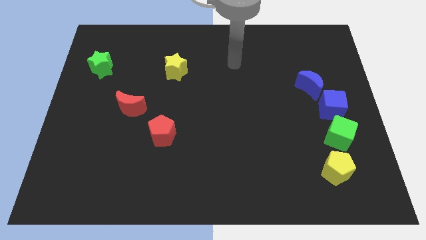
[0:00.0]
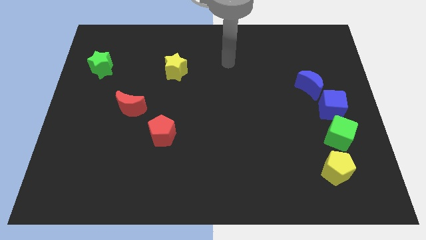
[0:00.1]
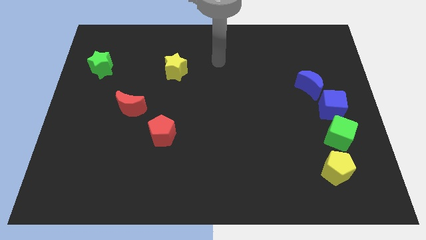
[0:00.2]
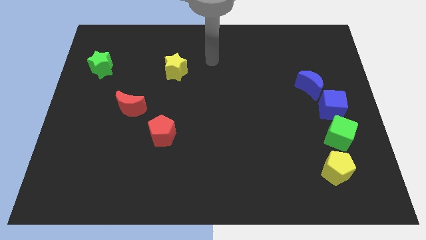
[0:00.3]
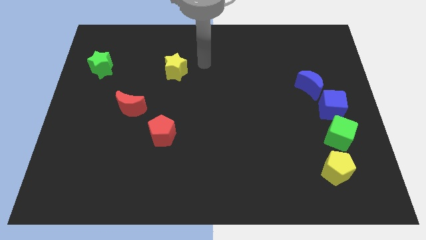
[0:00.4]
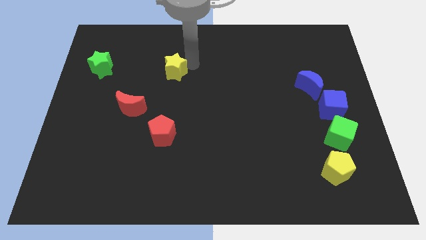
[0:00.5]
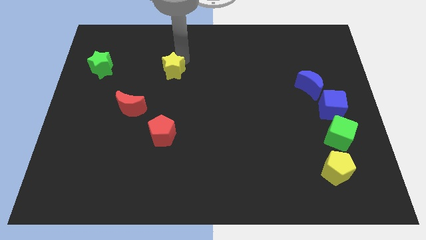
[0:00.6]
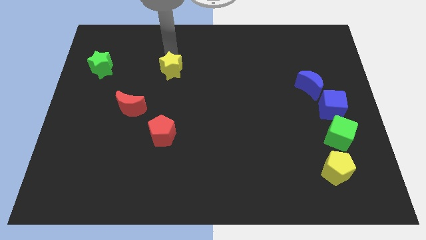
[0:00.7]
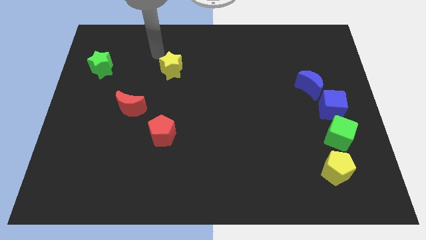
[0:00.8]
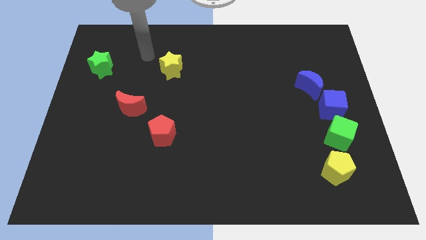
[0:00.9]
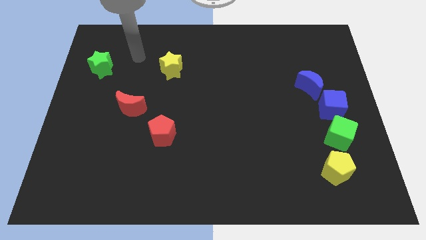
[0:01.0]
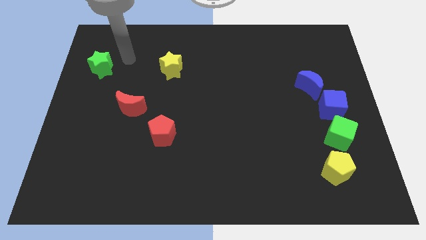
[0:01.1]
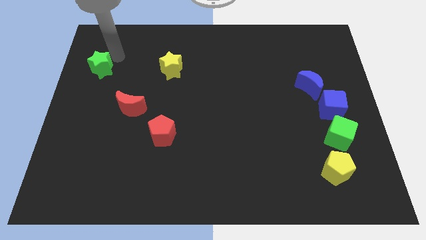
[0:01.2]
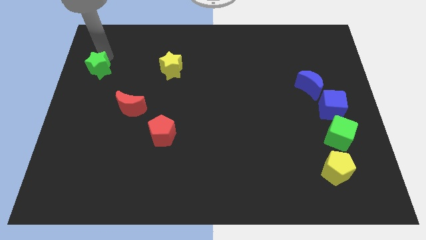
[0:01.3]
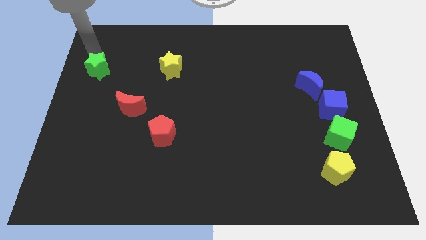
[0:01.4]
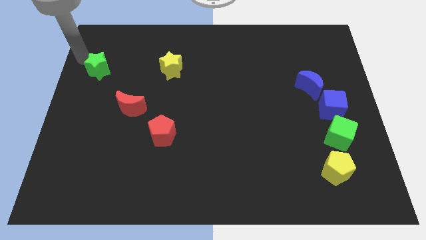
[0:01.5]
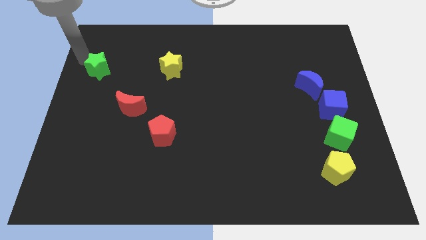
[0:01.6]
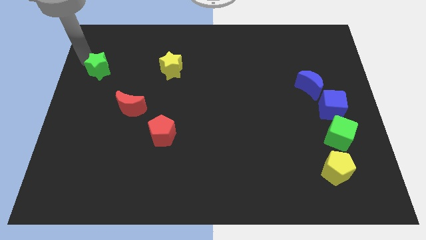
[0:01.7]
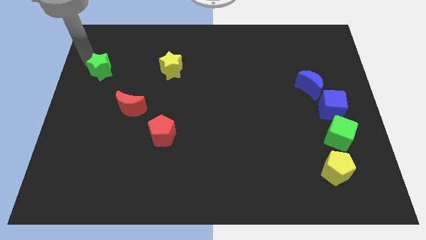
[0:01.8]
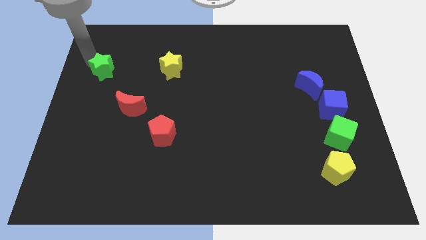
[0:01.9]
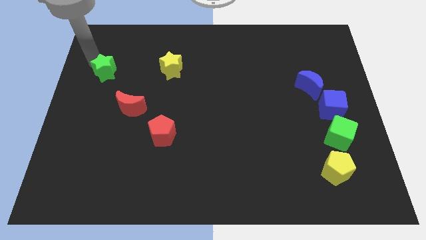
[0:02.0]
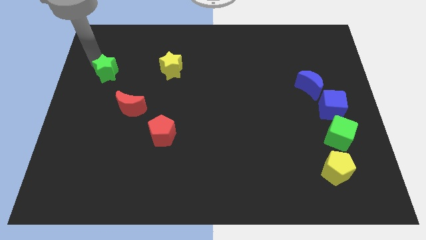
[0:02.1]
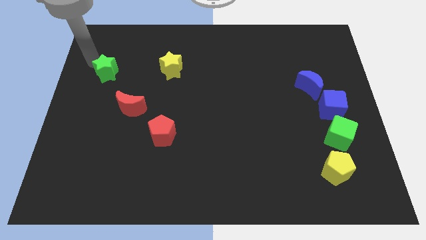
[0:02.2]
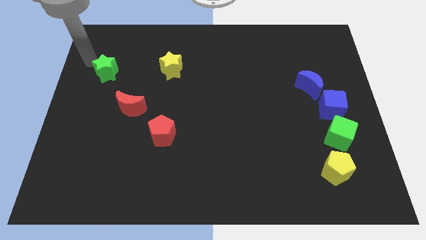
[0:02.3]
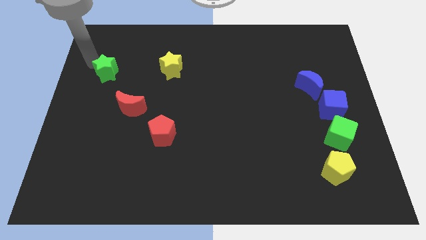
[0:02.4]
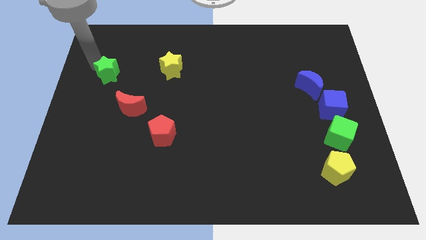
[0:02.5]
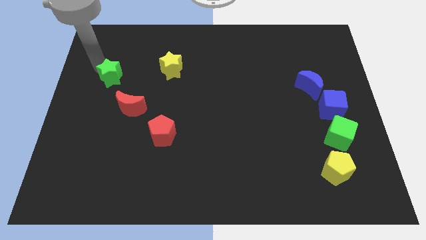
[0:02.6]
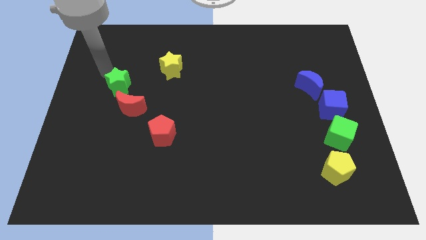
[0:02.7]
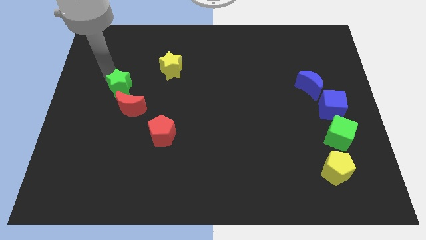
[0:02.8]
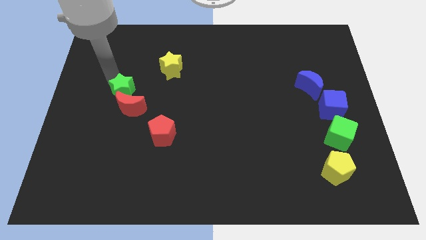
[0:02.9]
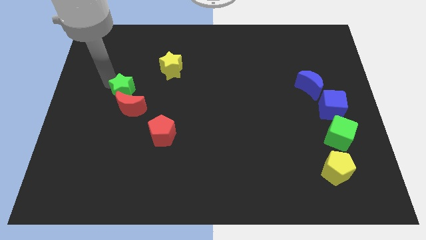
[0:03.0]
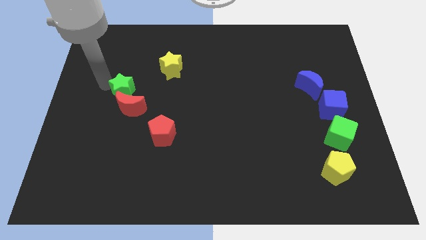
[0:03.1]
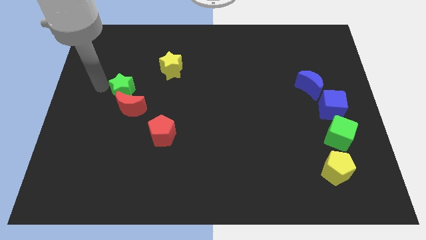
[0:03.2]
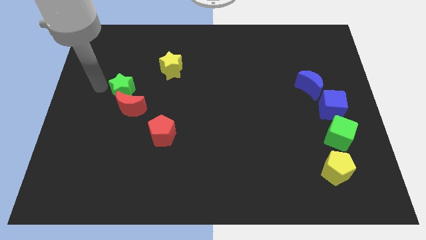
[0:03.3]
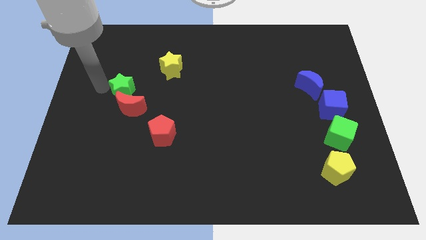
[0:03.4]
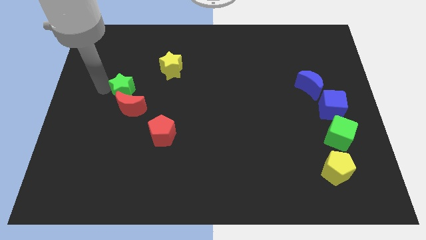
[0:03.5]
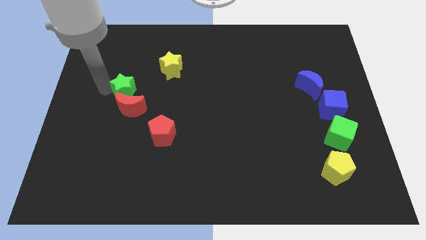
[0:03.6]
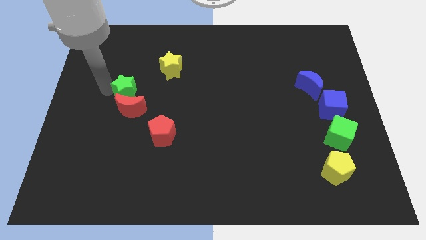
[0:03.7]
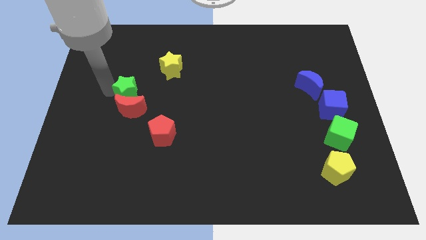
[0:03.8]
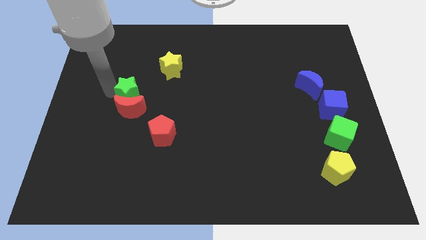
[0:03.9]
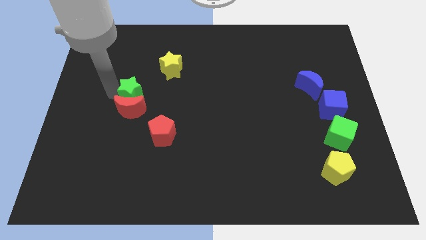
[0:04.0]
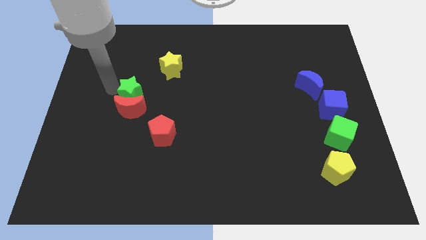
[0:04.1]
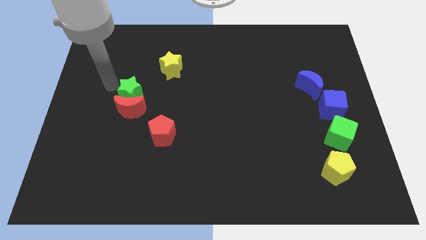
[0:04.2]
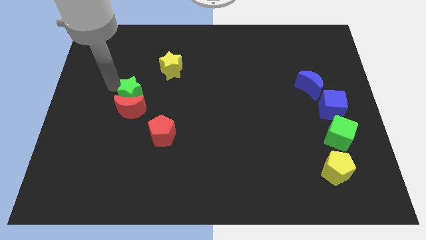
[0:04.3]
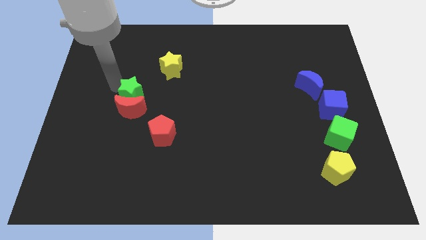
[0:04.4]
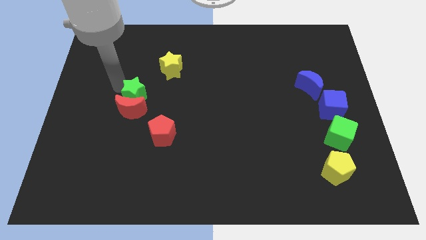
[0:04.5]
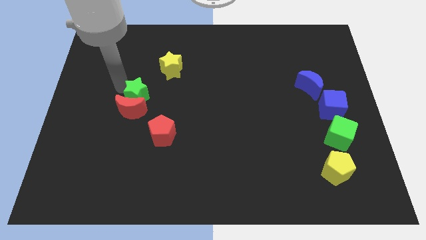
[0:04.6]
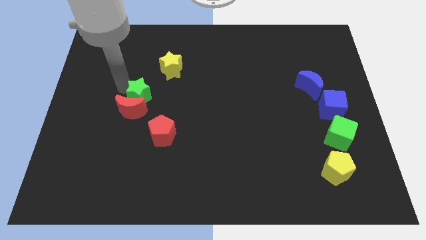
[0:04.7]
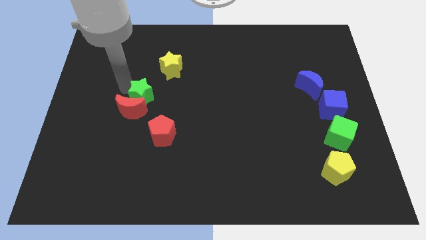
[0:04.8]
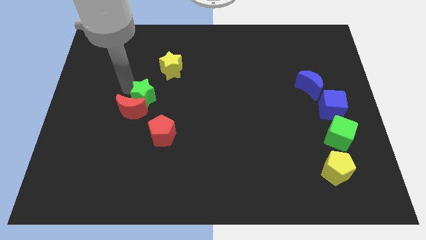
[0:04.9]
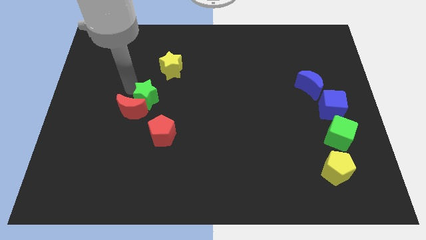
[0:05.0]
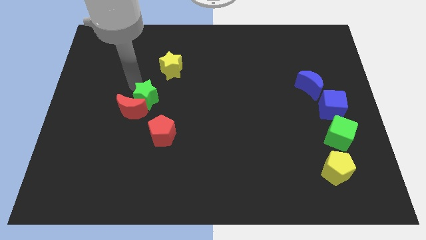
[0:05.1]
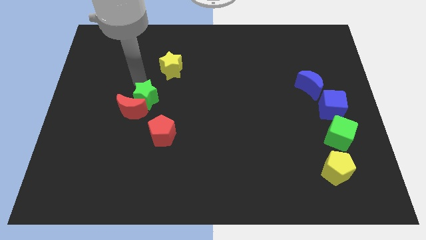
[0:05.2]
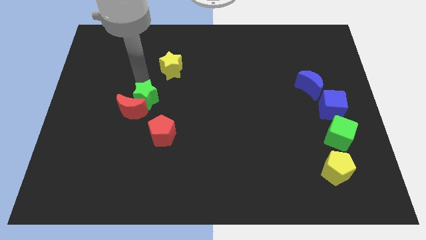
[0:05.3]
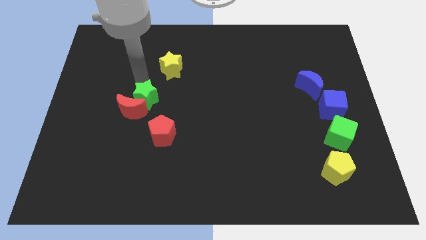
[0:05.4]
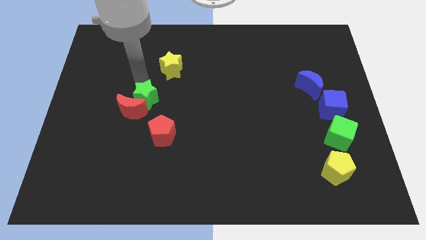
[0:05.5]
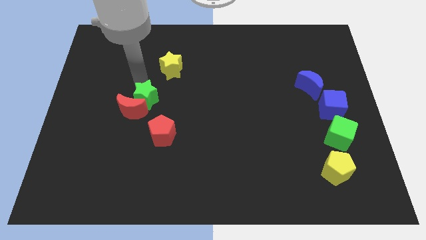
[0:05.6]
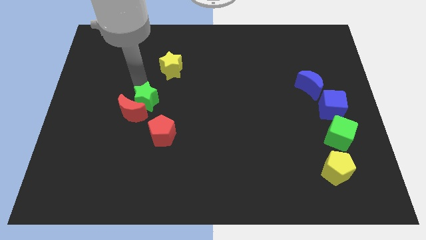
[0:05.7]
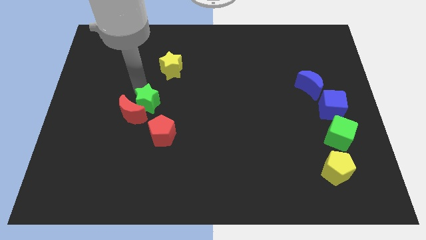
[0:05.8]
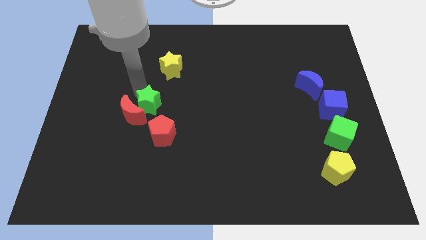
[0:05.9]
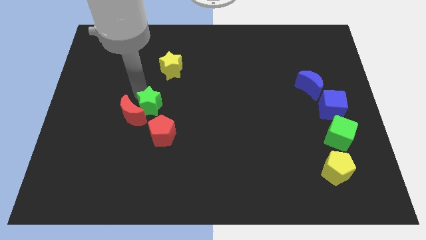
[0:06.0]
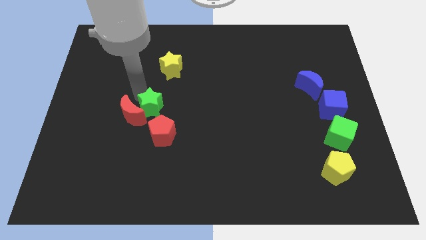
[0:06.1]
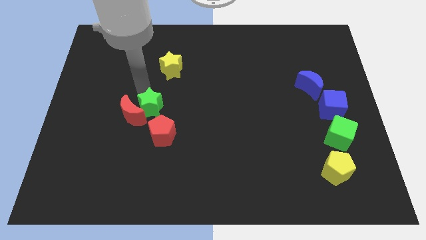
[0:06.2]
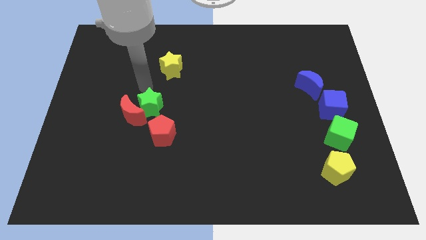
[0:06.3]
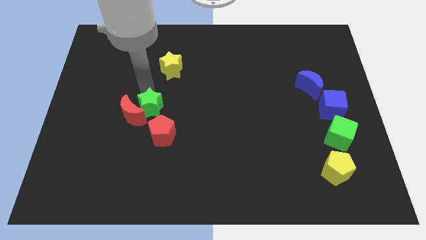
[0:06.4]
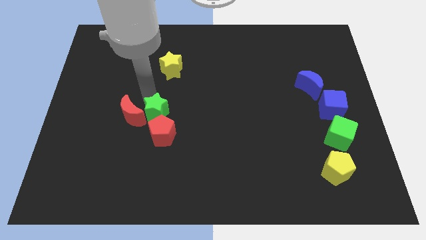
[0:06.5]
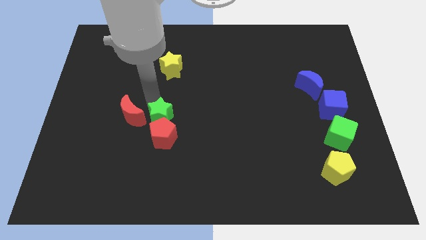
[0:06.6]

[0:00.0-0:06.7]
put the green star towards the red pentagon
